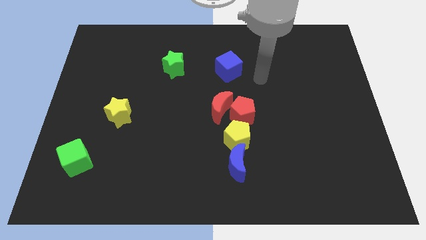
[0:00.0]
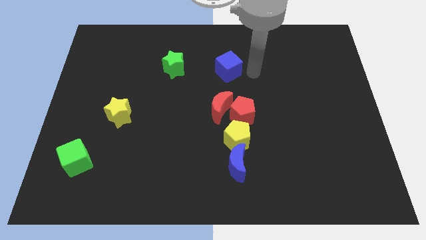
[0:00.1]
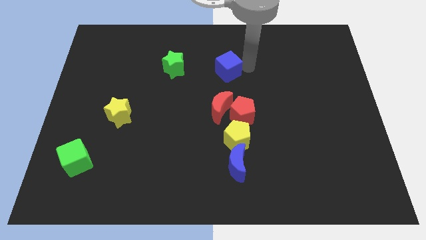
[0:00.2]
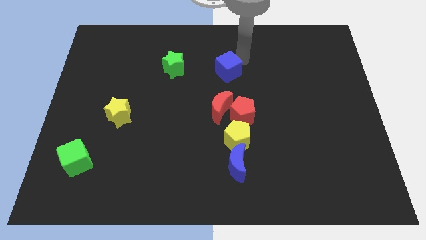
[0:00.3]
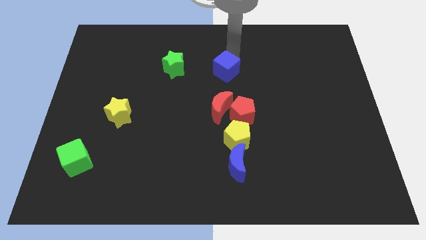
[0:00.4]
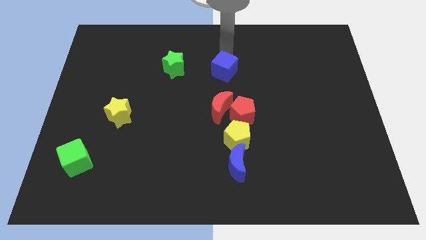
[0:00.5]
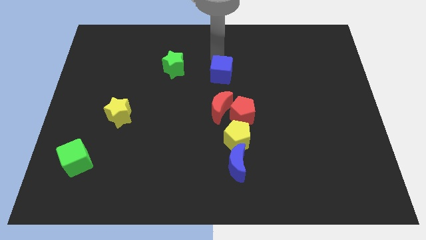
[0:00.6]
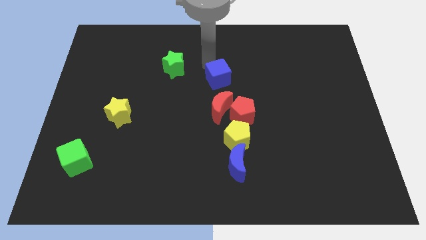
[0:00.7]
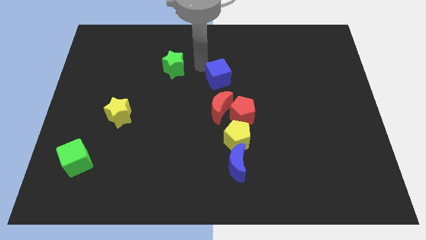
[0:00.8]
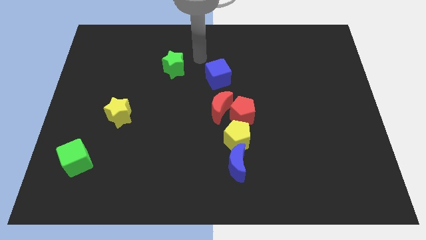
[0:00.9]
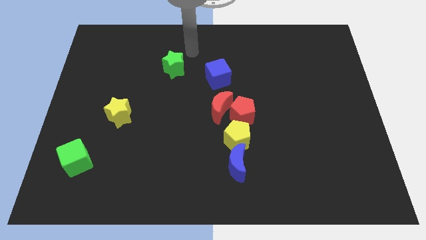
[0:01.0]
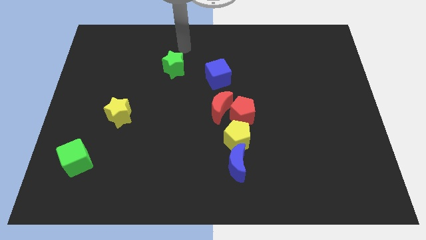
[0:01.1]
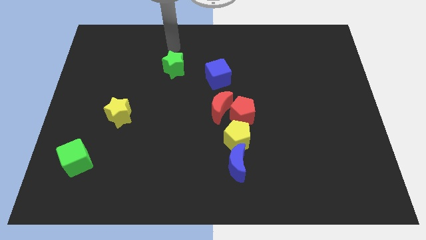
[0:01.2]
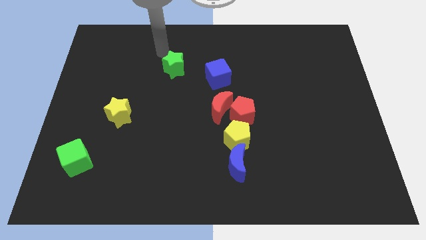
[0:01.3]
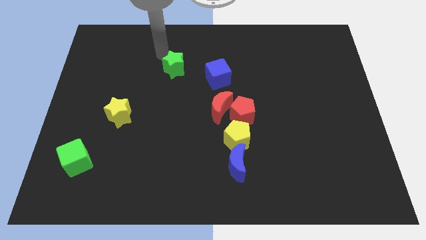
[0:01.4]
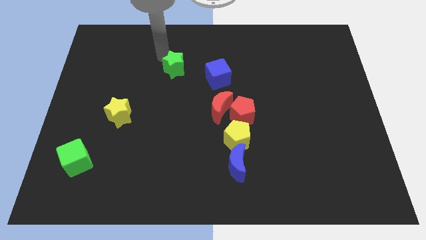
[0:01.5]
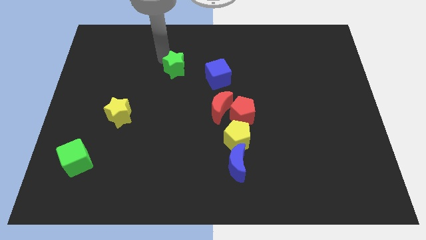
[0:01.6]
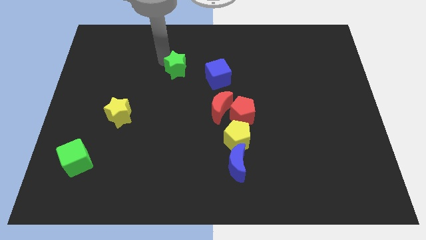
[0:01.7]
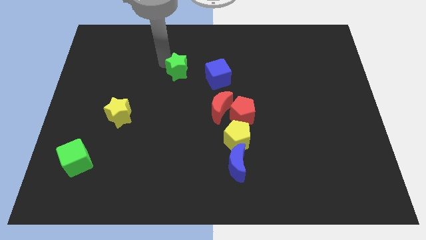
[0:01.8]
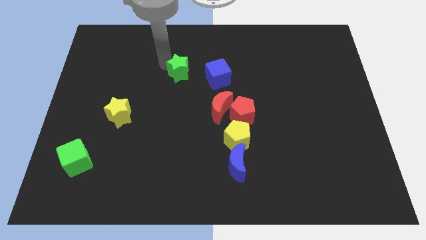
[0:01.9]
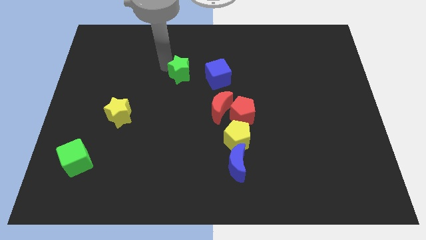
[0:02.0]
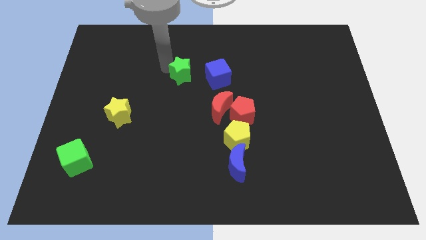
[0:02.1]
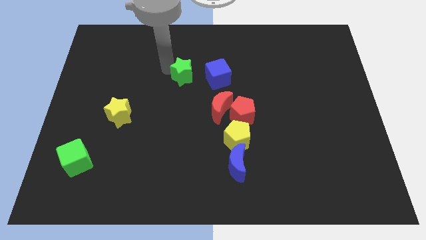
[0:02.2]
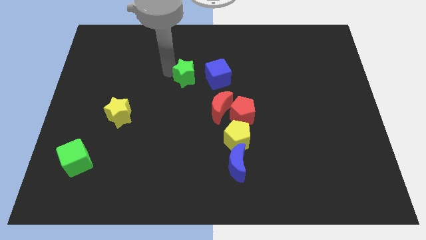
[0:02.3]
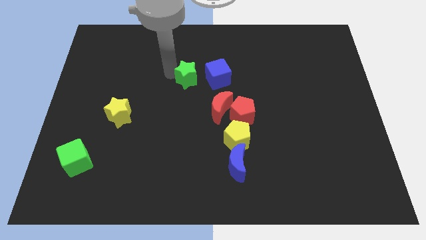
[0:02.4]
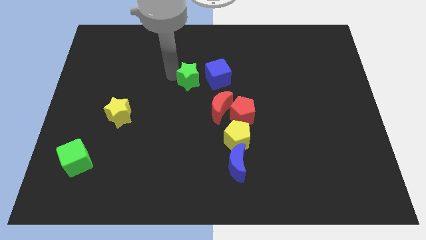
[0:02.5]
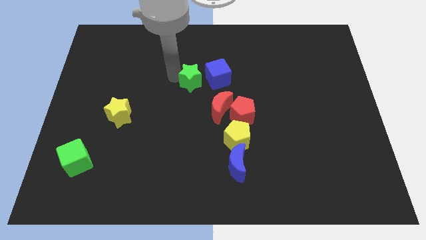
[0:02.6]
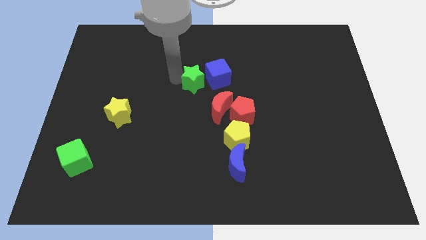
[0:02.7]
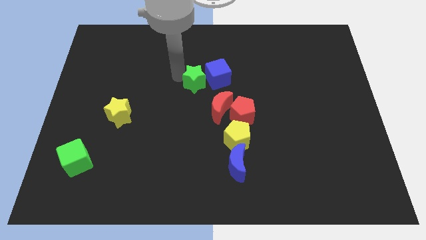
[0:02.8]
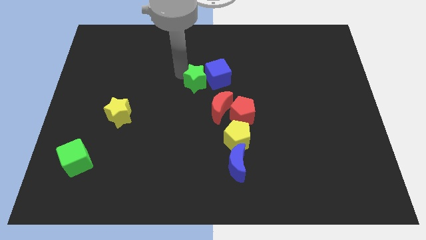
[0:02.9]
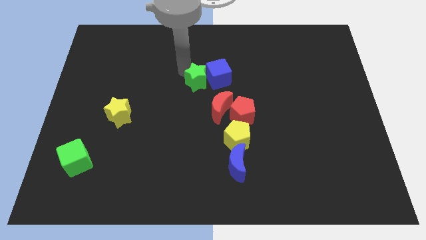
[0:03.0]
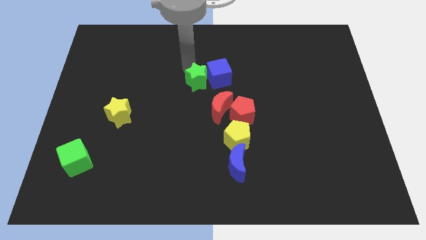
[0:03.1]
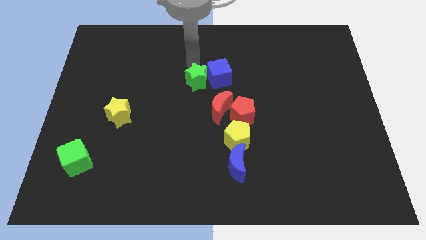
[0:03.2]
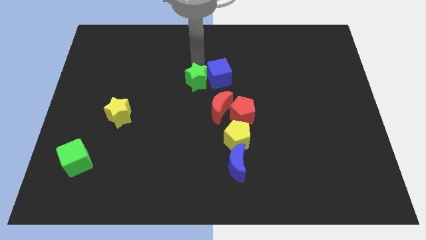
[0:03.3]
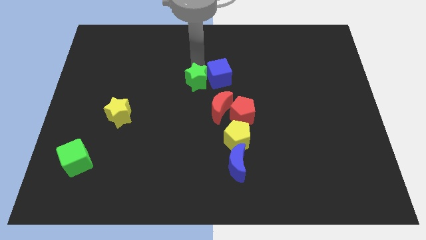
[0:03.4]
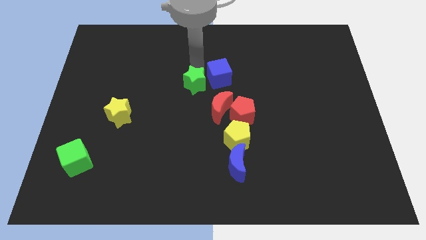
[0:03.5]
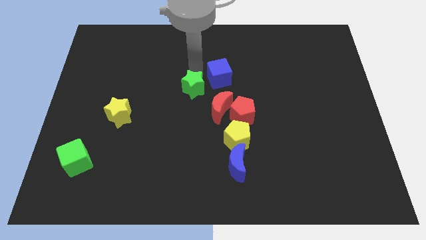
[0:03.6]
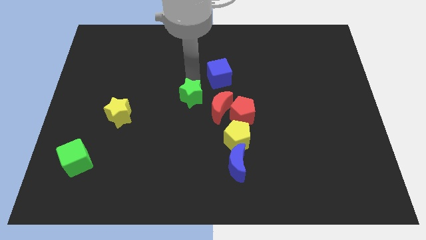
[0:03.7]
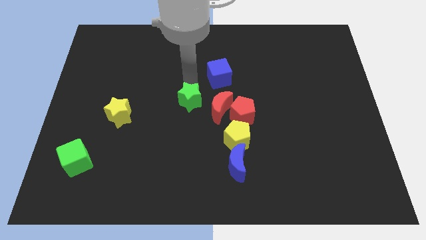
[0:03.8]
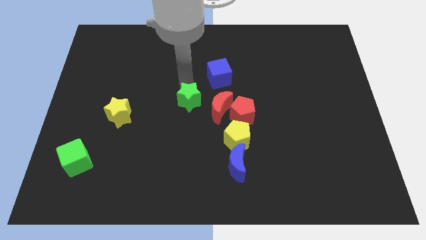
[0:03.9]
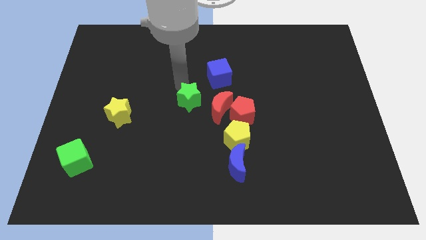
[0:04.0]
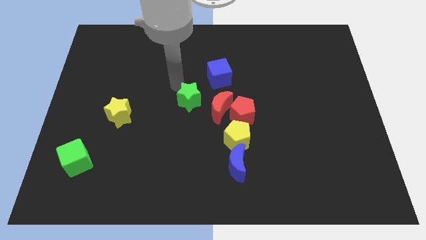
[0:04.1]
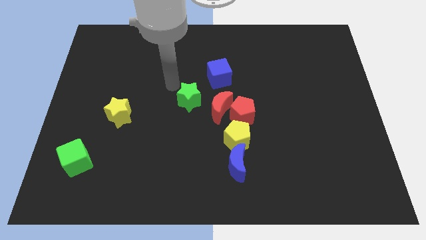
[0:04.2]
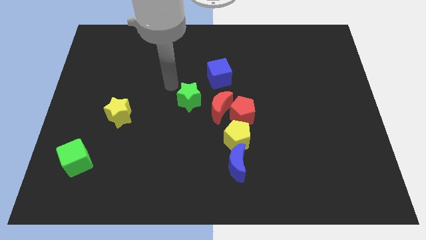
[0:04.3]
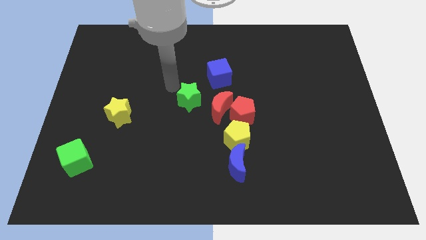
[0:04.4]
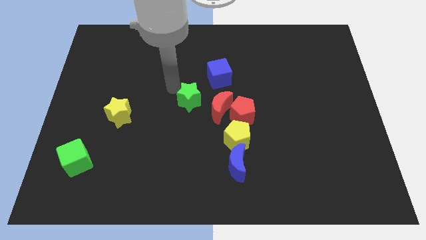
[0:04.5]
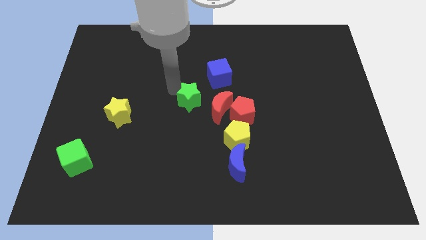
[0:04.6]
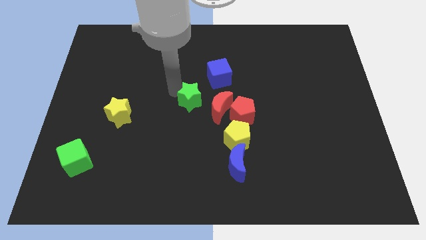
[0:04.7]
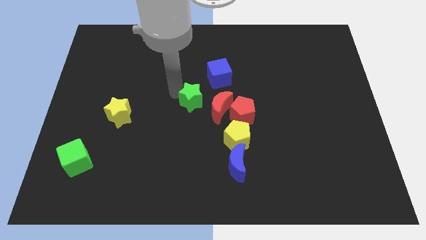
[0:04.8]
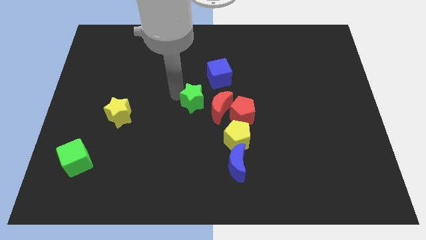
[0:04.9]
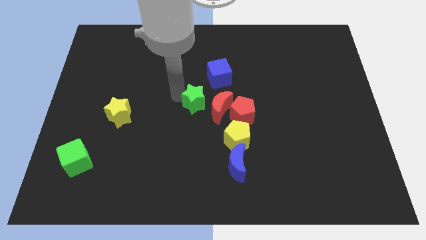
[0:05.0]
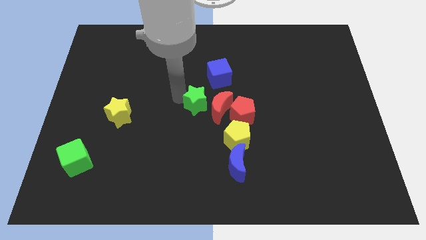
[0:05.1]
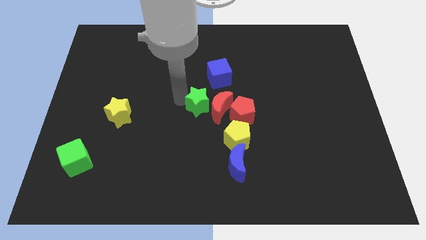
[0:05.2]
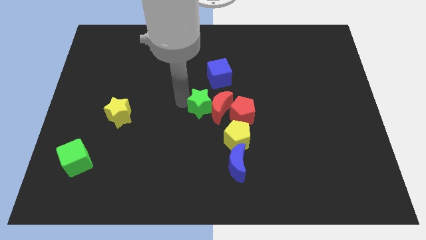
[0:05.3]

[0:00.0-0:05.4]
move the green star to the top left of the yellow pentagon
